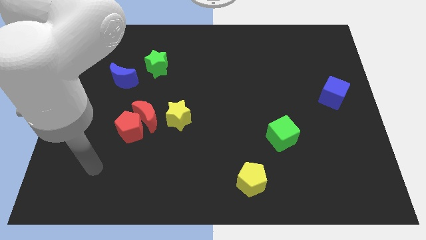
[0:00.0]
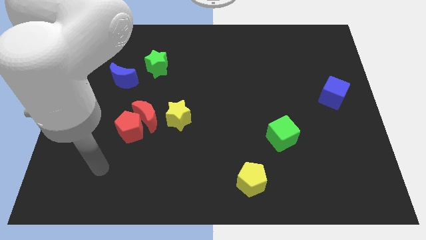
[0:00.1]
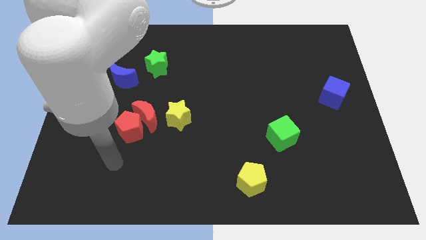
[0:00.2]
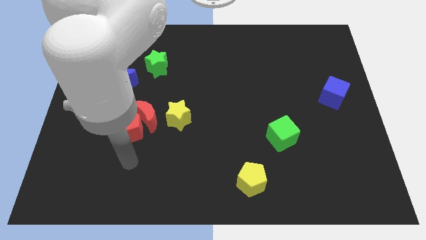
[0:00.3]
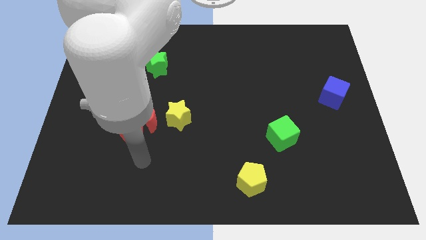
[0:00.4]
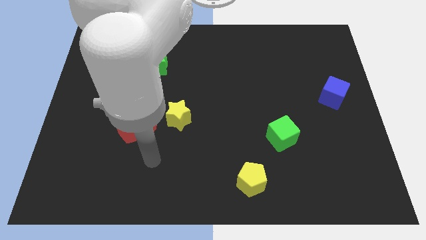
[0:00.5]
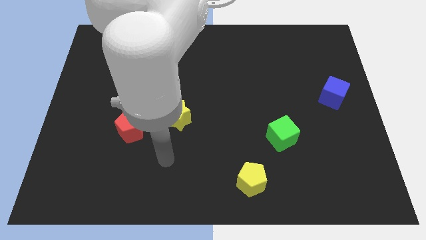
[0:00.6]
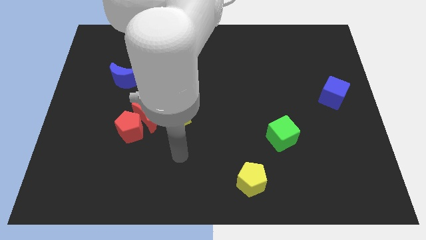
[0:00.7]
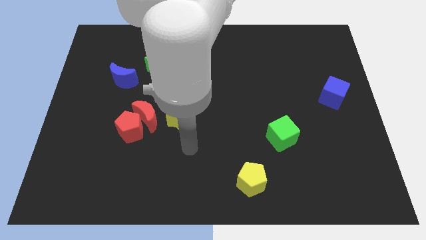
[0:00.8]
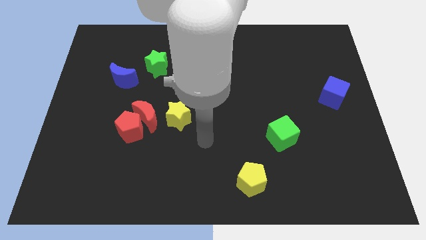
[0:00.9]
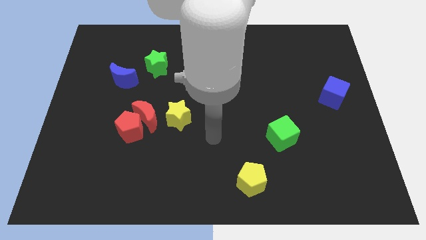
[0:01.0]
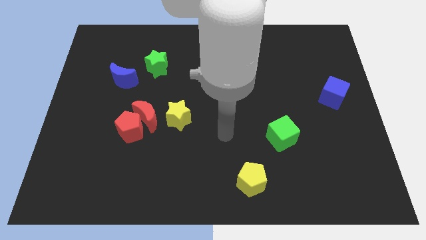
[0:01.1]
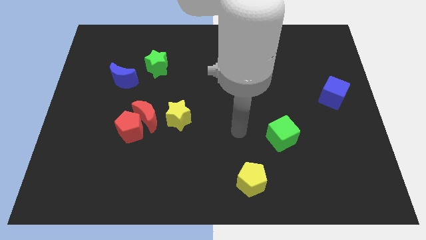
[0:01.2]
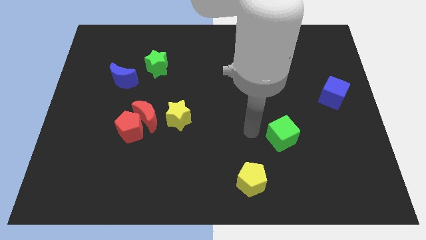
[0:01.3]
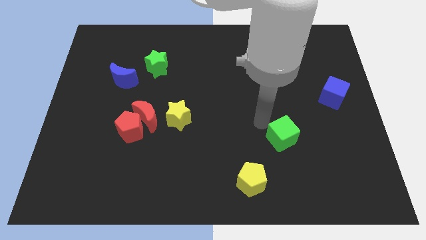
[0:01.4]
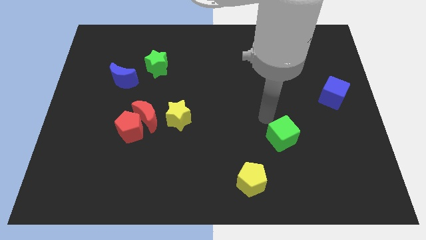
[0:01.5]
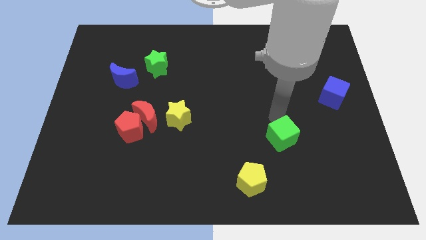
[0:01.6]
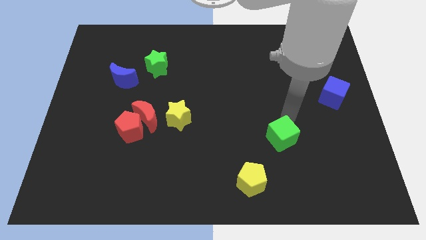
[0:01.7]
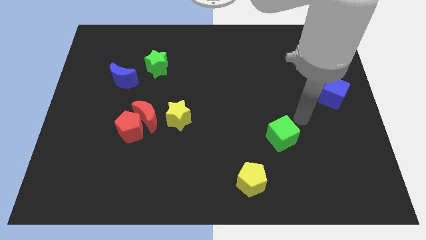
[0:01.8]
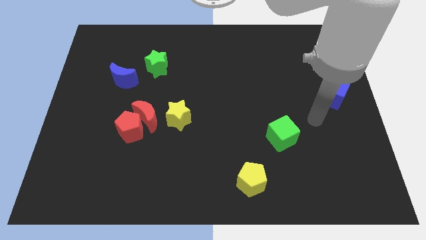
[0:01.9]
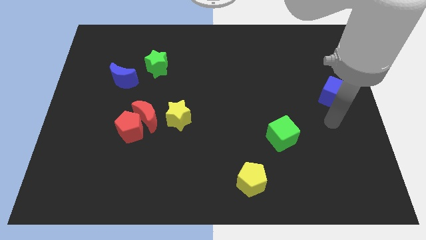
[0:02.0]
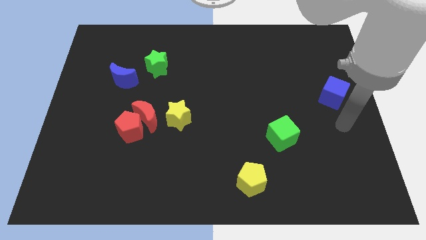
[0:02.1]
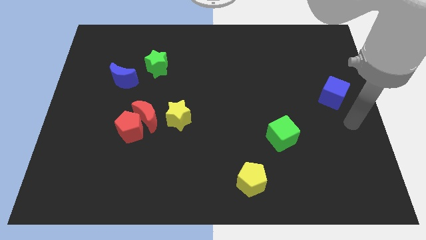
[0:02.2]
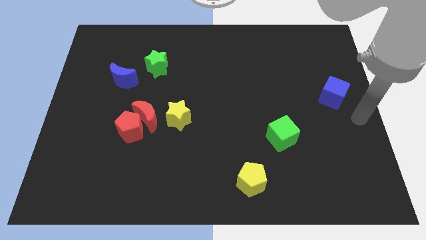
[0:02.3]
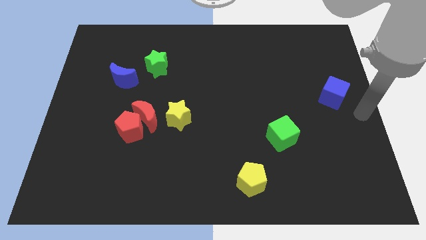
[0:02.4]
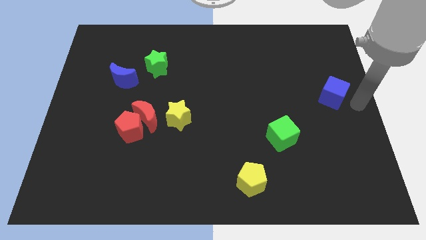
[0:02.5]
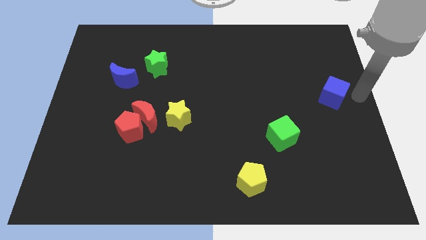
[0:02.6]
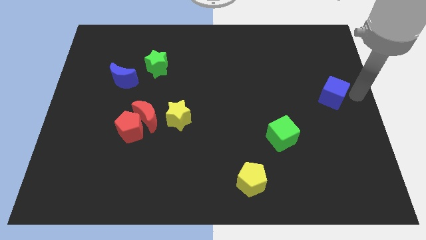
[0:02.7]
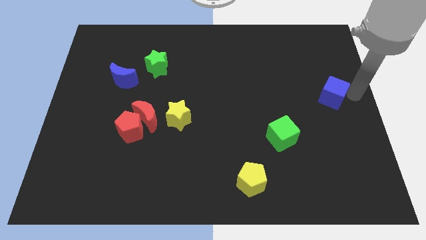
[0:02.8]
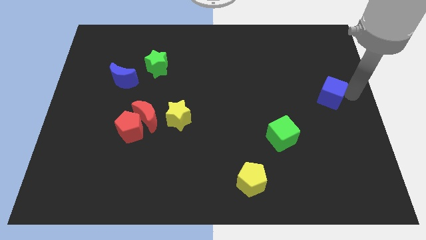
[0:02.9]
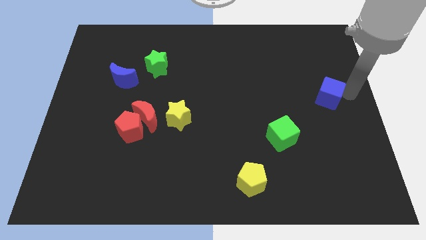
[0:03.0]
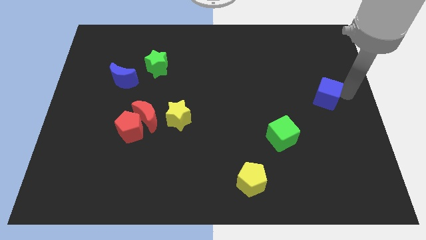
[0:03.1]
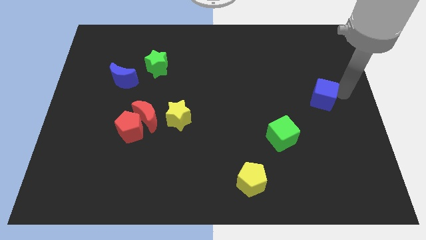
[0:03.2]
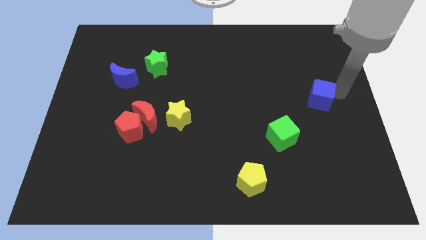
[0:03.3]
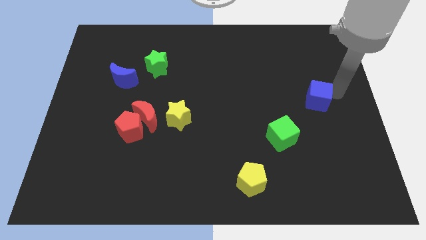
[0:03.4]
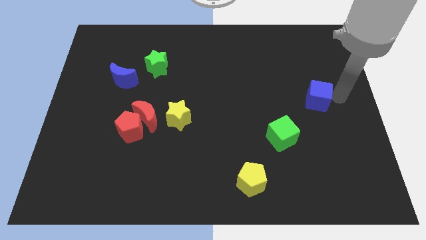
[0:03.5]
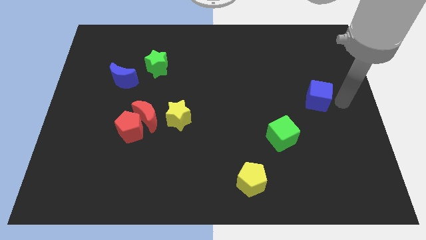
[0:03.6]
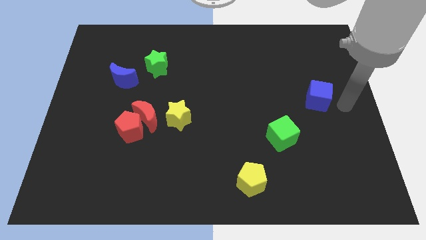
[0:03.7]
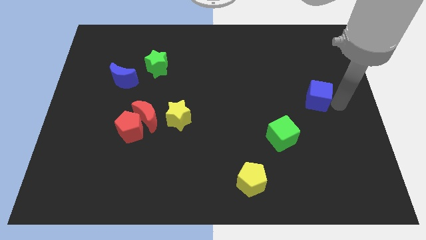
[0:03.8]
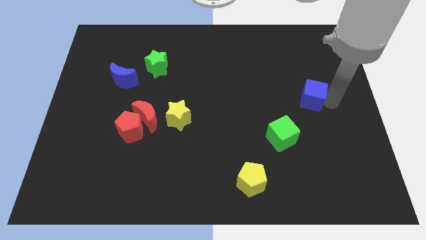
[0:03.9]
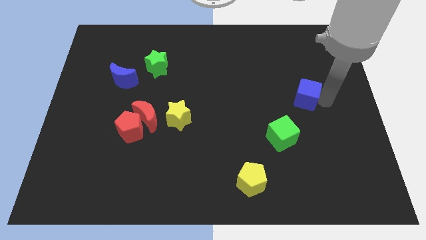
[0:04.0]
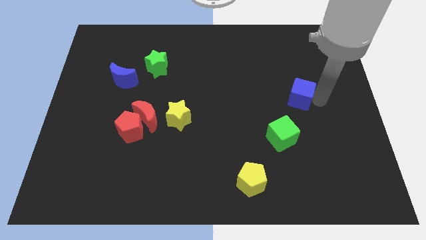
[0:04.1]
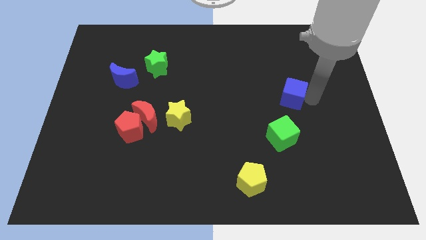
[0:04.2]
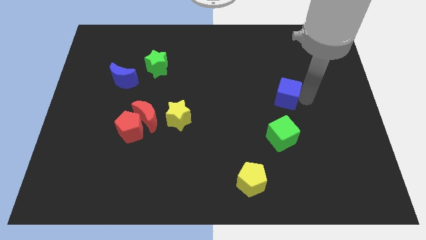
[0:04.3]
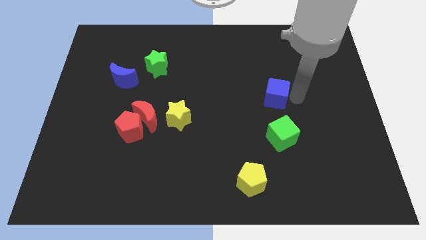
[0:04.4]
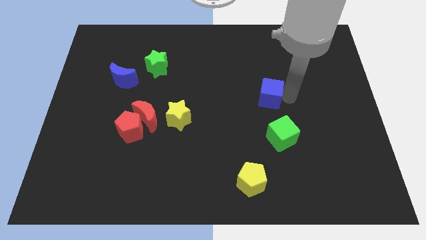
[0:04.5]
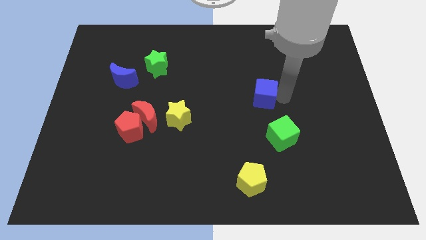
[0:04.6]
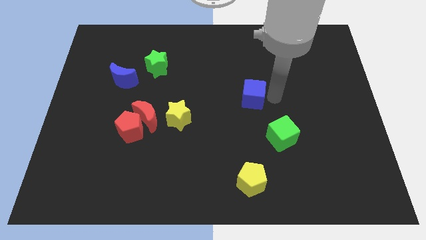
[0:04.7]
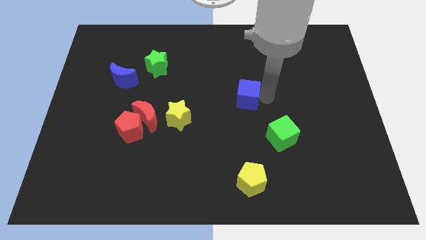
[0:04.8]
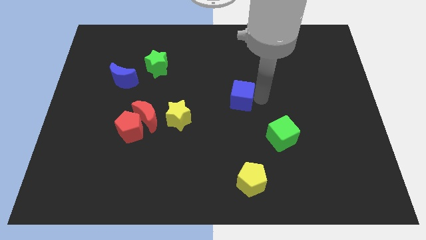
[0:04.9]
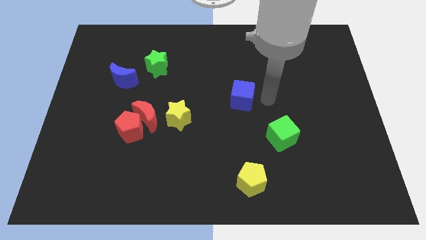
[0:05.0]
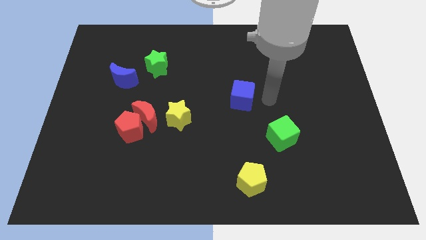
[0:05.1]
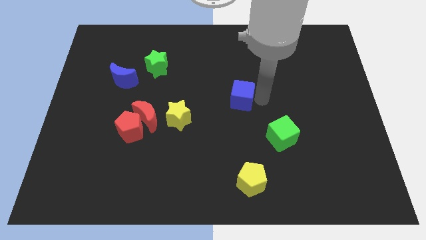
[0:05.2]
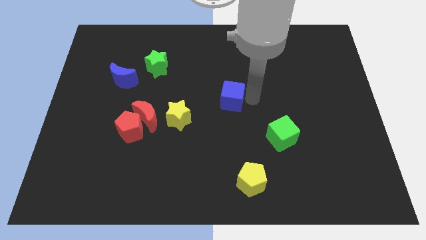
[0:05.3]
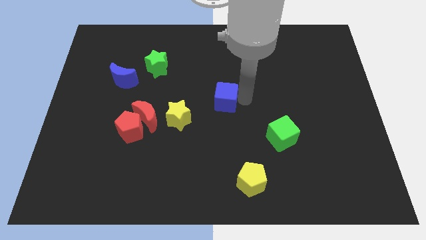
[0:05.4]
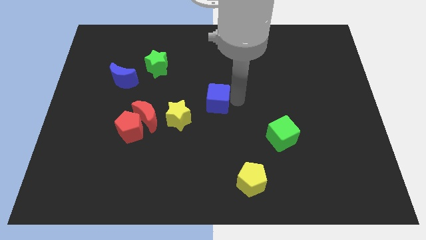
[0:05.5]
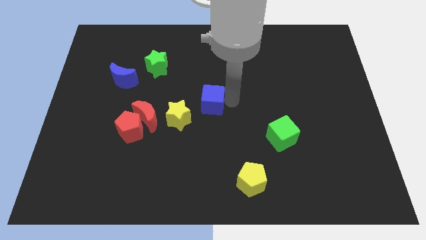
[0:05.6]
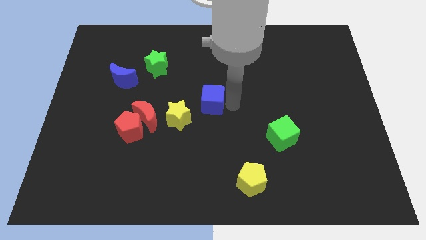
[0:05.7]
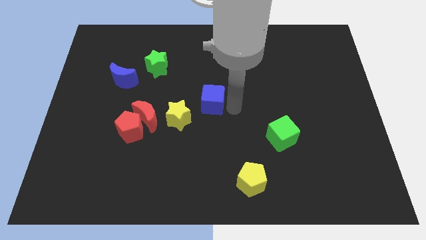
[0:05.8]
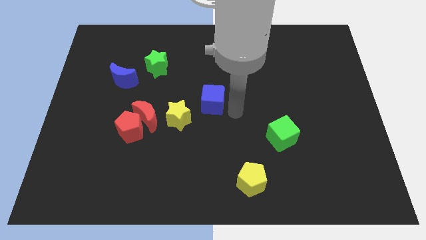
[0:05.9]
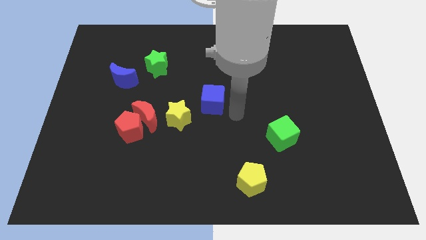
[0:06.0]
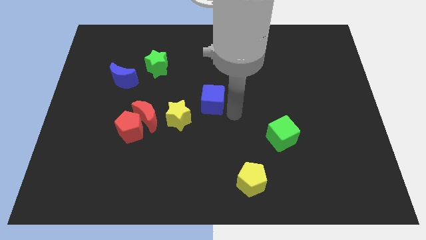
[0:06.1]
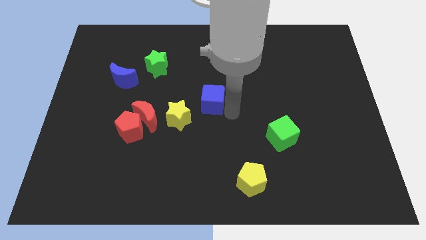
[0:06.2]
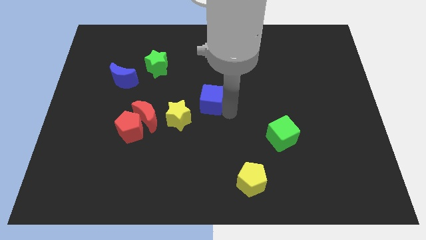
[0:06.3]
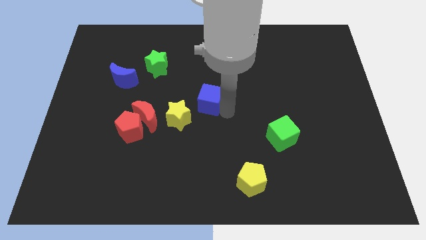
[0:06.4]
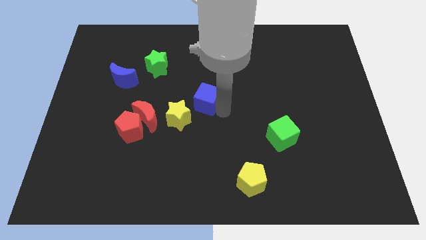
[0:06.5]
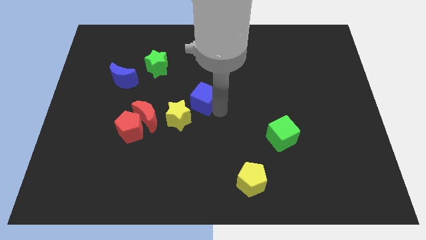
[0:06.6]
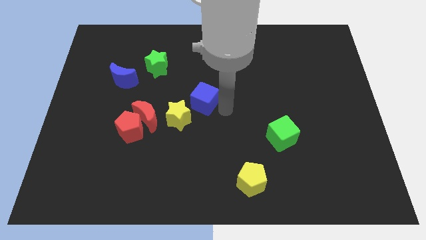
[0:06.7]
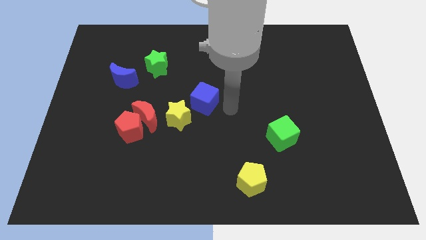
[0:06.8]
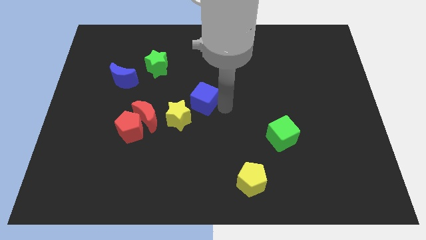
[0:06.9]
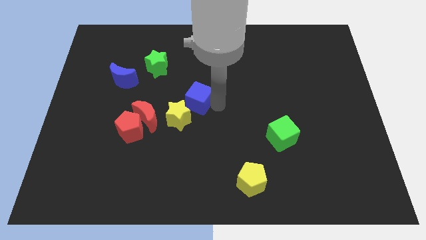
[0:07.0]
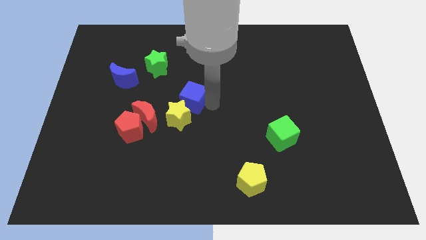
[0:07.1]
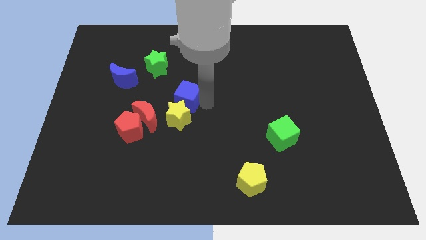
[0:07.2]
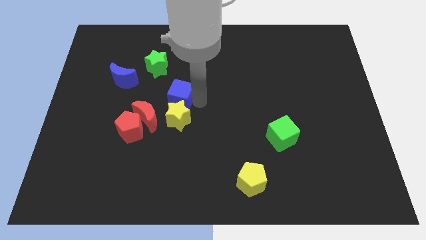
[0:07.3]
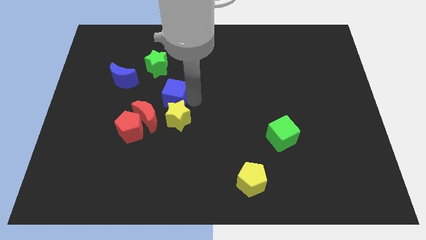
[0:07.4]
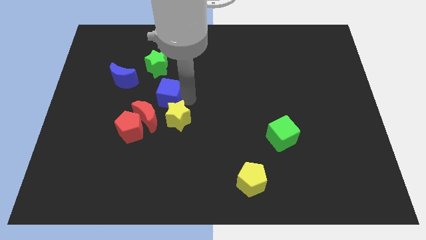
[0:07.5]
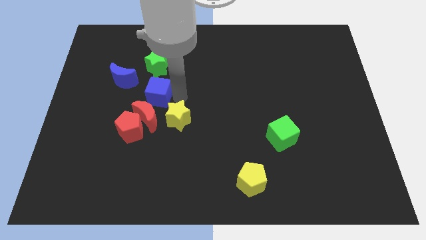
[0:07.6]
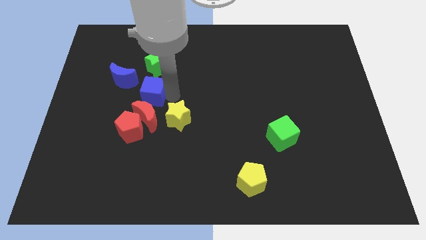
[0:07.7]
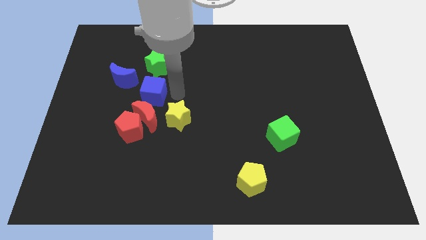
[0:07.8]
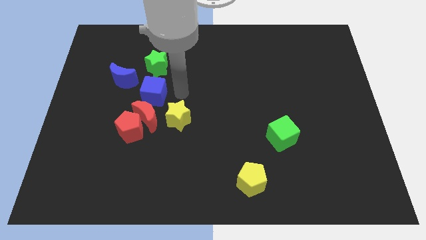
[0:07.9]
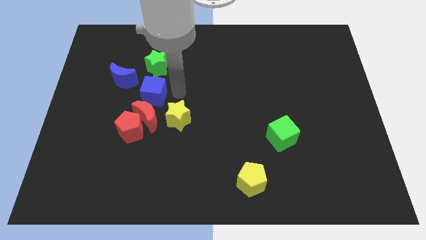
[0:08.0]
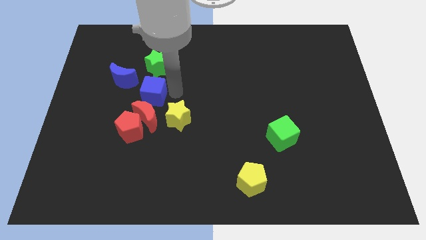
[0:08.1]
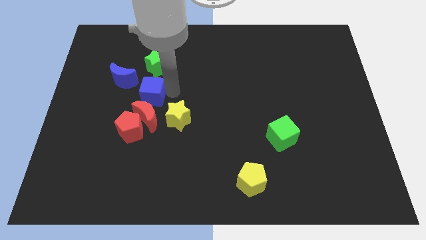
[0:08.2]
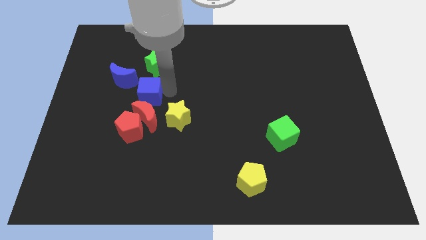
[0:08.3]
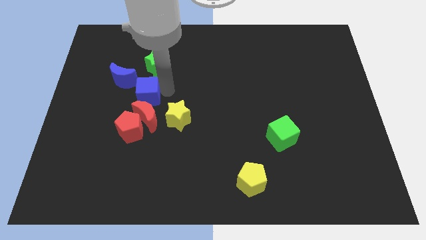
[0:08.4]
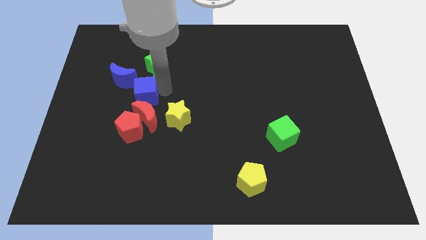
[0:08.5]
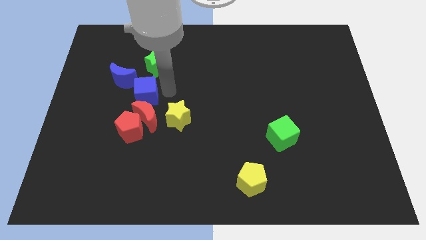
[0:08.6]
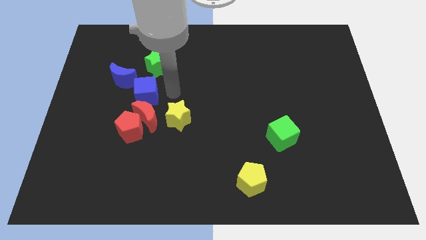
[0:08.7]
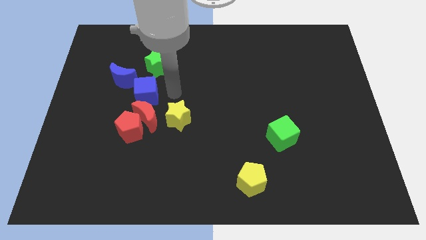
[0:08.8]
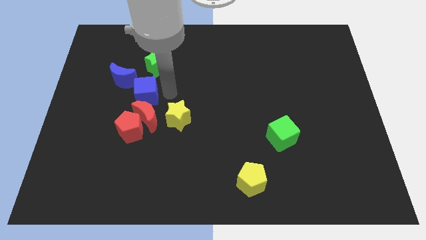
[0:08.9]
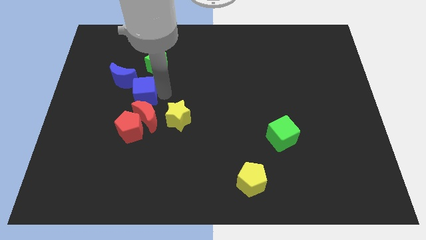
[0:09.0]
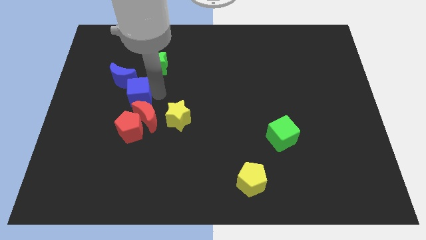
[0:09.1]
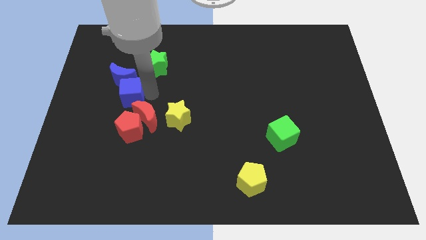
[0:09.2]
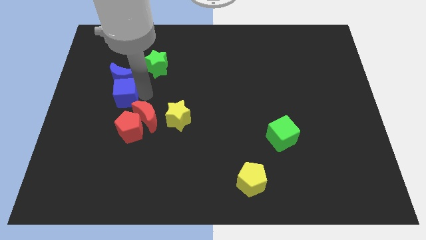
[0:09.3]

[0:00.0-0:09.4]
push the blue cube diagonally down and to the left of the blue moon
